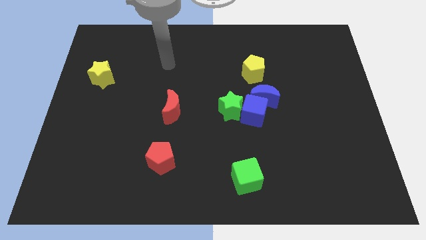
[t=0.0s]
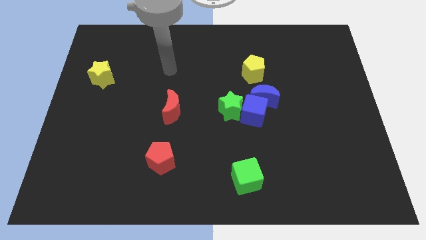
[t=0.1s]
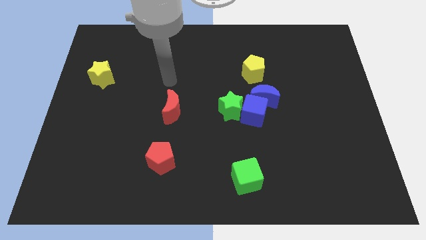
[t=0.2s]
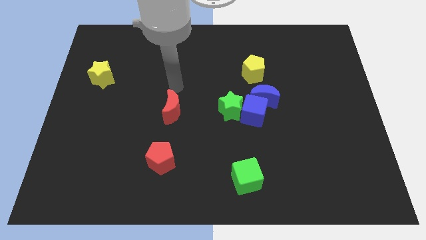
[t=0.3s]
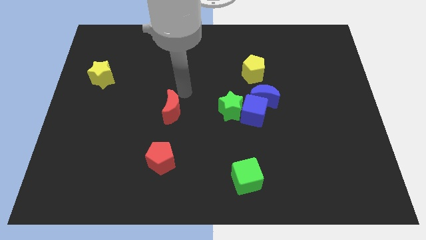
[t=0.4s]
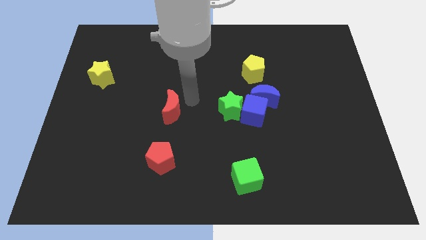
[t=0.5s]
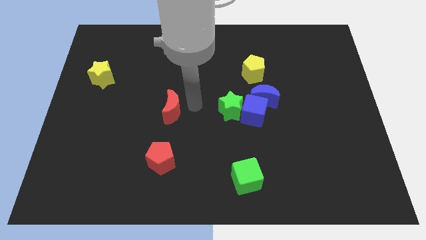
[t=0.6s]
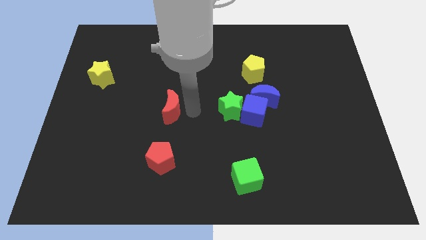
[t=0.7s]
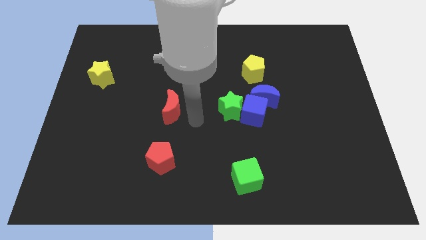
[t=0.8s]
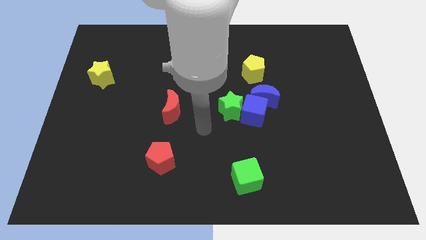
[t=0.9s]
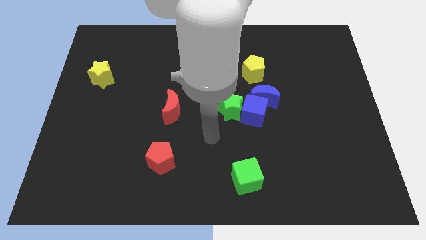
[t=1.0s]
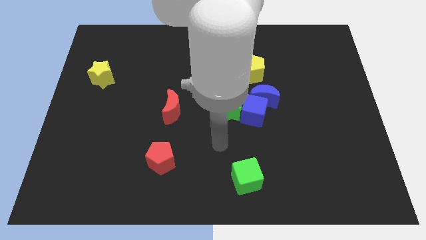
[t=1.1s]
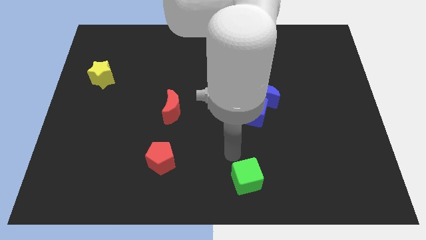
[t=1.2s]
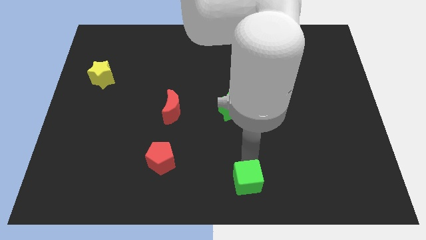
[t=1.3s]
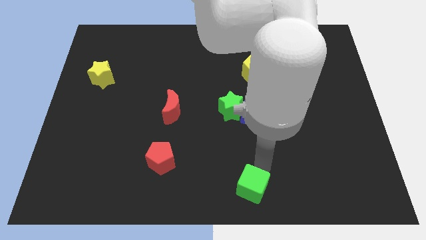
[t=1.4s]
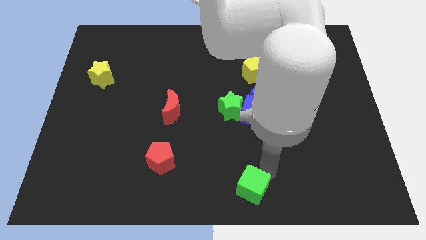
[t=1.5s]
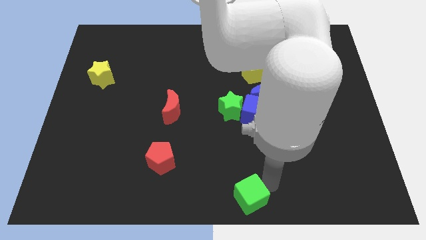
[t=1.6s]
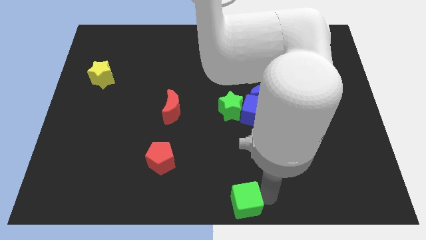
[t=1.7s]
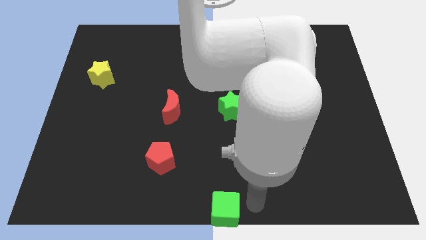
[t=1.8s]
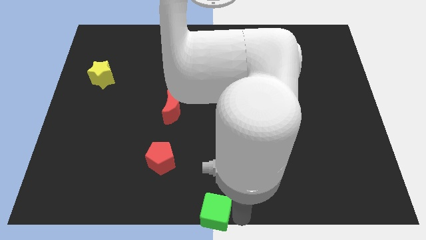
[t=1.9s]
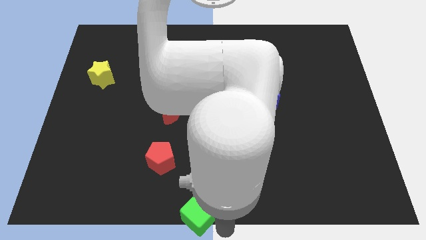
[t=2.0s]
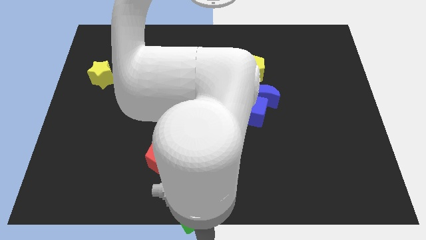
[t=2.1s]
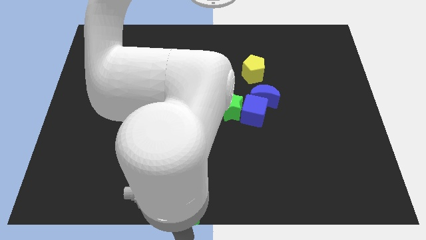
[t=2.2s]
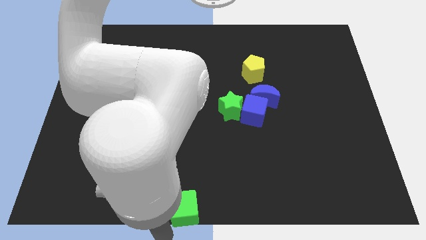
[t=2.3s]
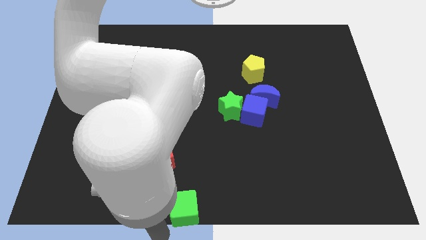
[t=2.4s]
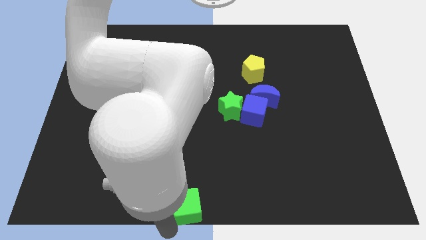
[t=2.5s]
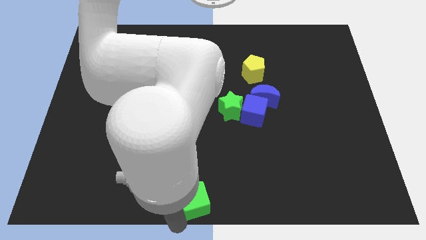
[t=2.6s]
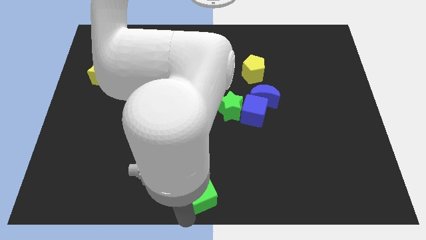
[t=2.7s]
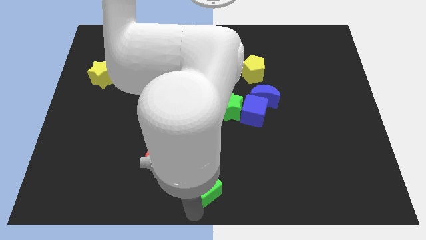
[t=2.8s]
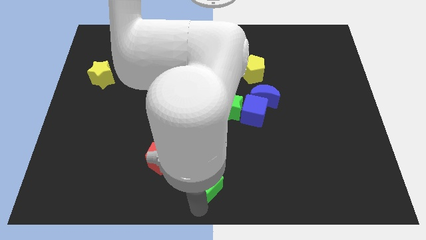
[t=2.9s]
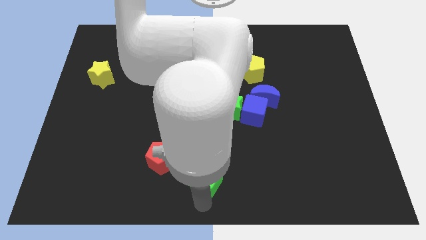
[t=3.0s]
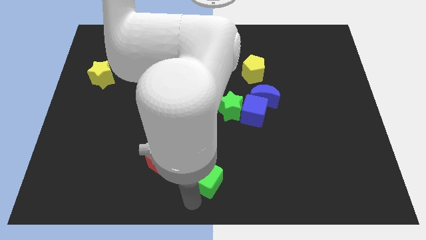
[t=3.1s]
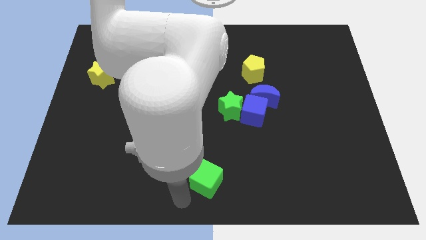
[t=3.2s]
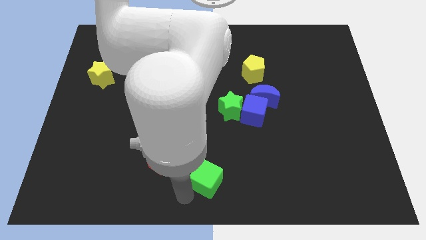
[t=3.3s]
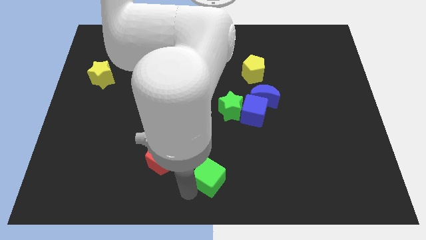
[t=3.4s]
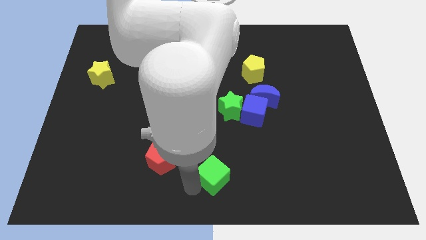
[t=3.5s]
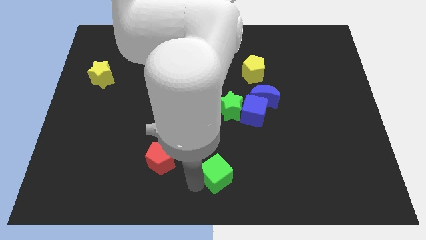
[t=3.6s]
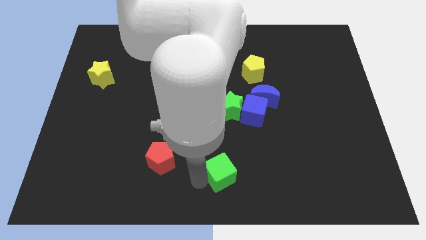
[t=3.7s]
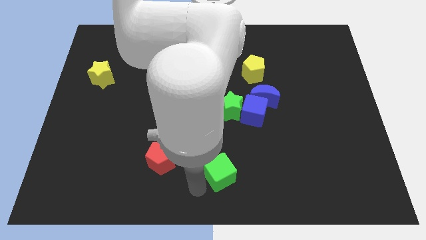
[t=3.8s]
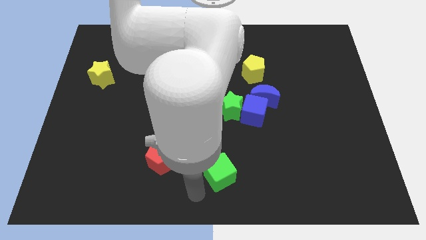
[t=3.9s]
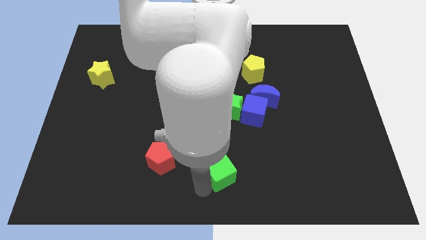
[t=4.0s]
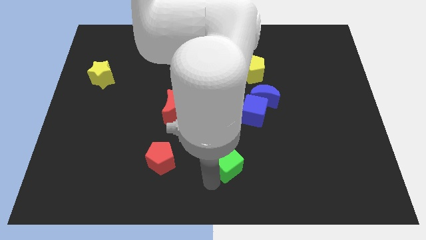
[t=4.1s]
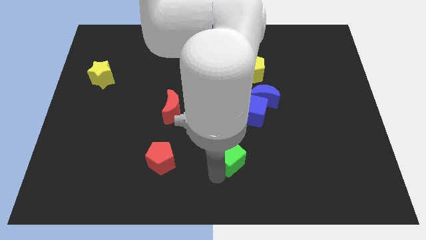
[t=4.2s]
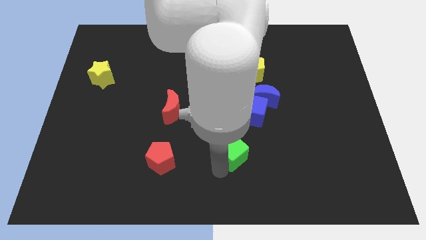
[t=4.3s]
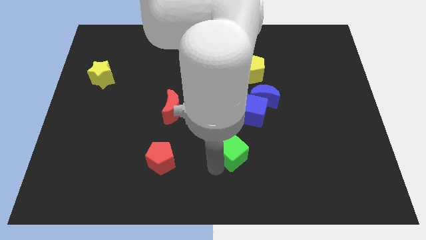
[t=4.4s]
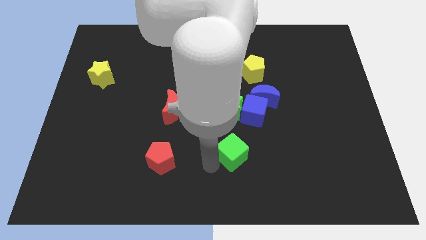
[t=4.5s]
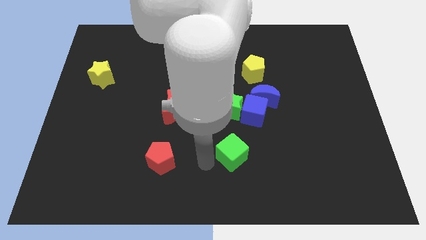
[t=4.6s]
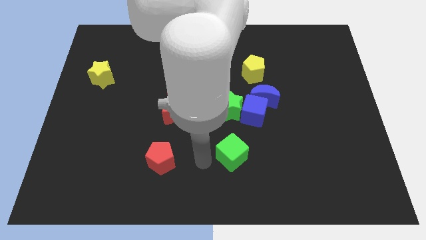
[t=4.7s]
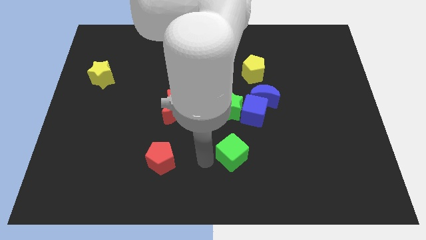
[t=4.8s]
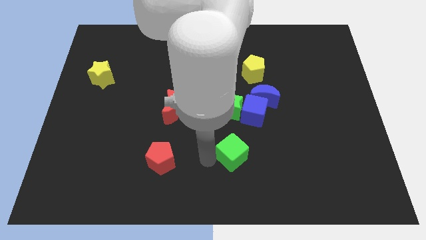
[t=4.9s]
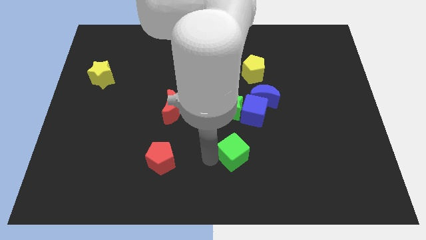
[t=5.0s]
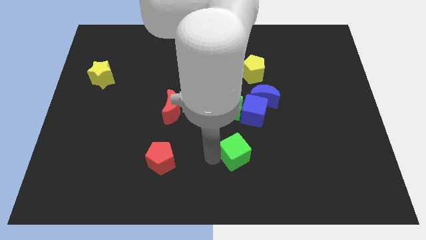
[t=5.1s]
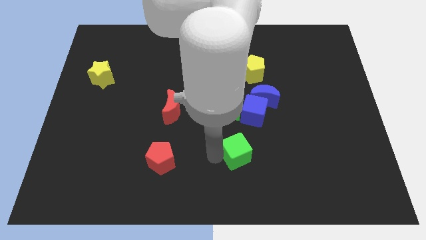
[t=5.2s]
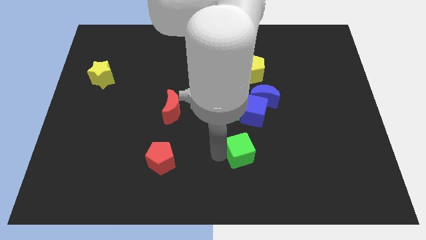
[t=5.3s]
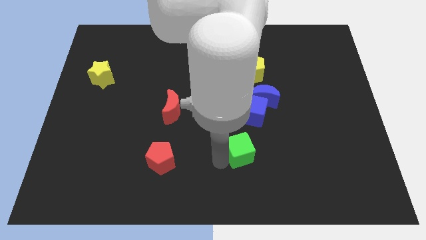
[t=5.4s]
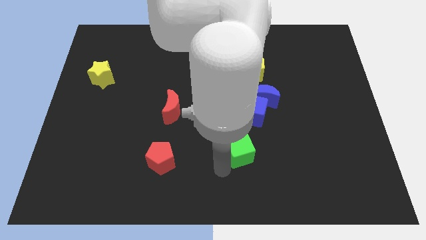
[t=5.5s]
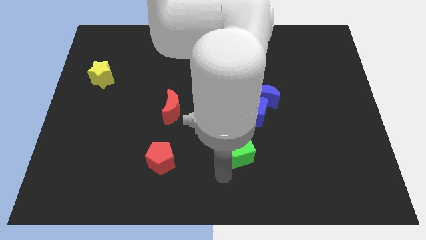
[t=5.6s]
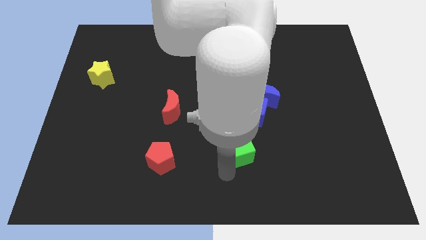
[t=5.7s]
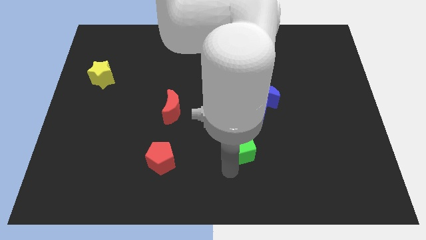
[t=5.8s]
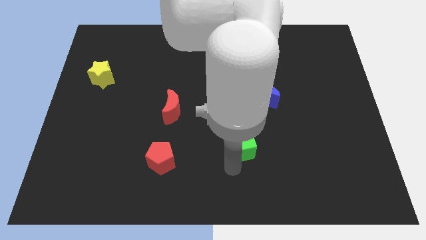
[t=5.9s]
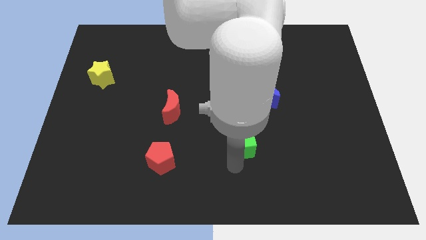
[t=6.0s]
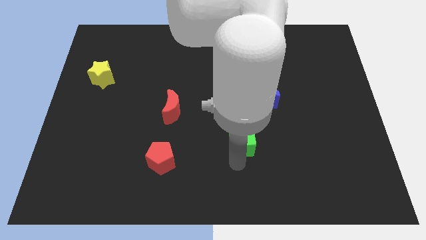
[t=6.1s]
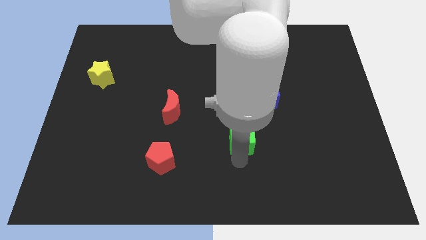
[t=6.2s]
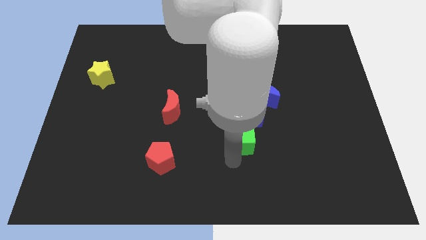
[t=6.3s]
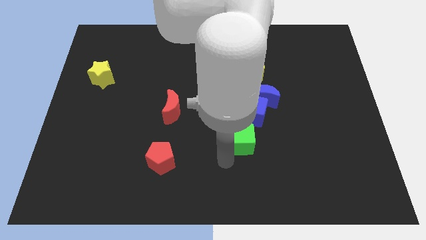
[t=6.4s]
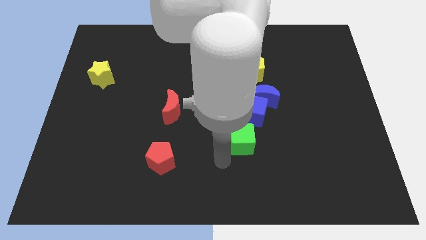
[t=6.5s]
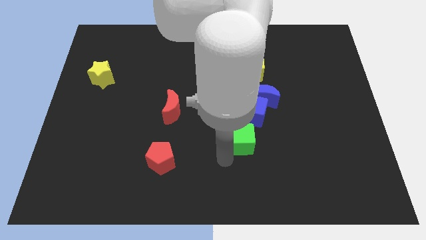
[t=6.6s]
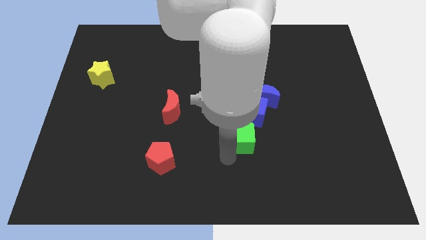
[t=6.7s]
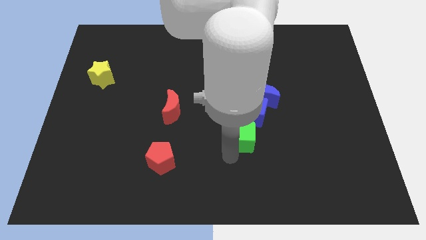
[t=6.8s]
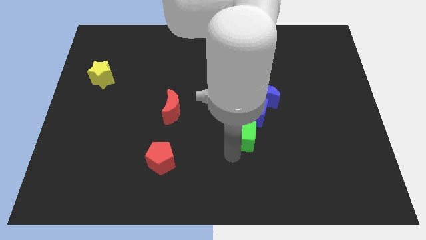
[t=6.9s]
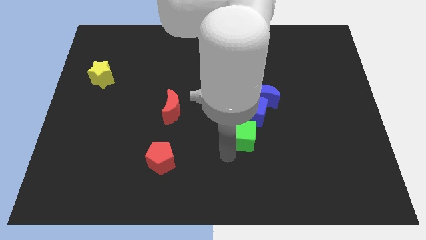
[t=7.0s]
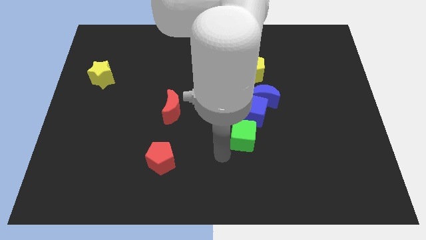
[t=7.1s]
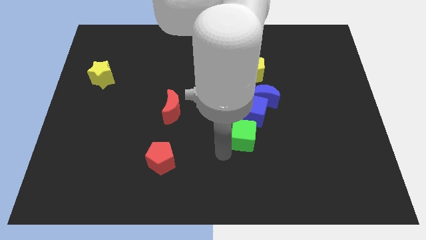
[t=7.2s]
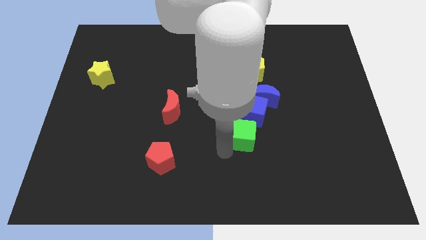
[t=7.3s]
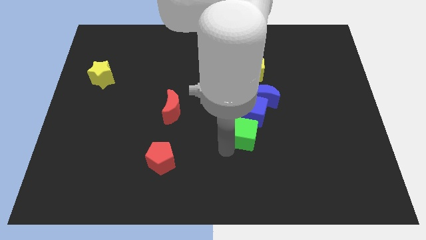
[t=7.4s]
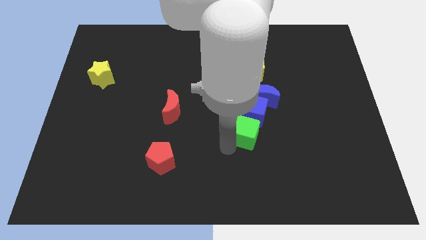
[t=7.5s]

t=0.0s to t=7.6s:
move the green cube towards the blue cube

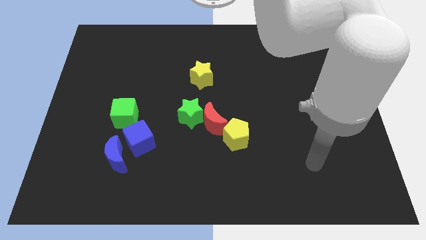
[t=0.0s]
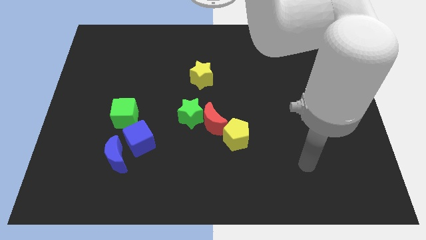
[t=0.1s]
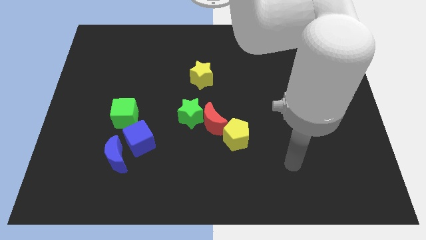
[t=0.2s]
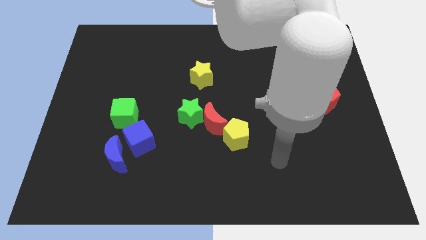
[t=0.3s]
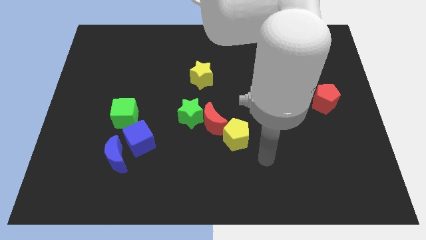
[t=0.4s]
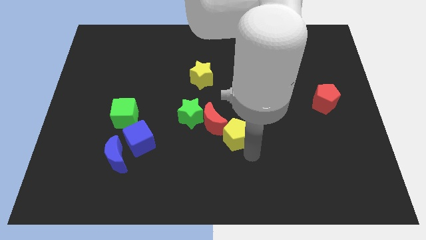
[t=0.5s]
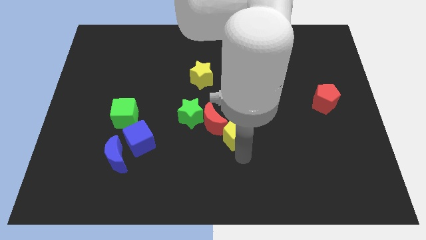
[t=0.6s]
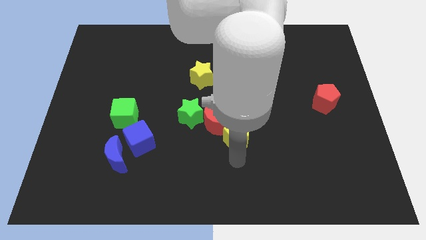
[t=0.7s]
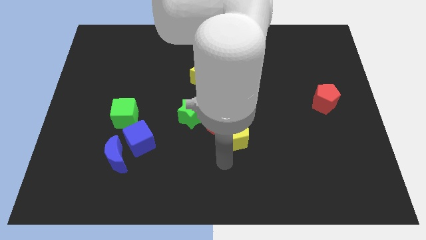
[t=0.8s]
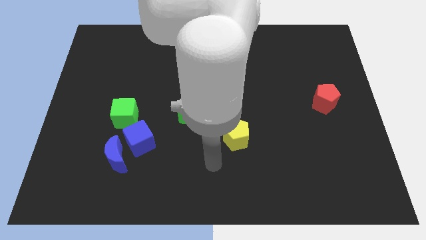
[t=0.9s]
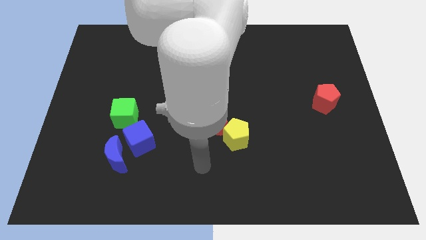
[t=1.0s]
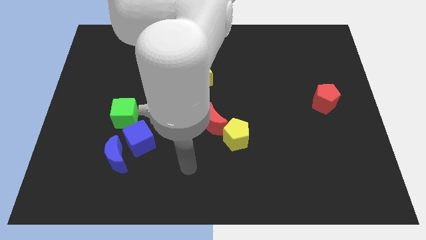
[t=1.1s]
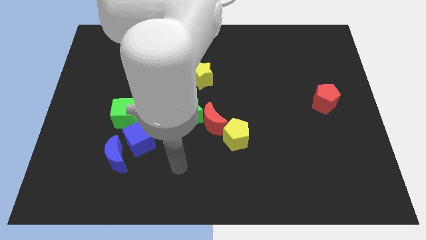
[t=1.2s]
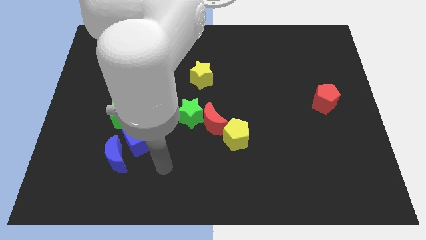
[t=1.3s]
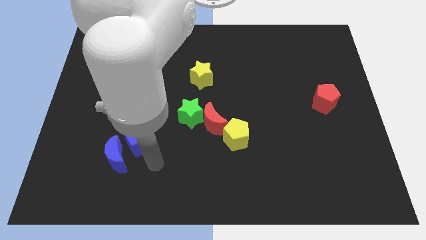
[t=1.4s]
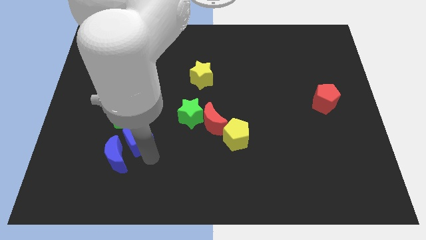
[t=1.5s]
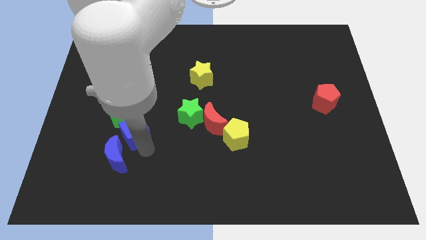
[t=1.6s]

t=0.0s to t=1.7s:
slide the blue cube to the green cube
